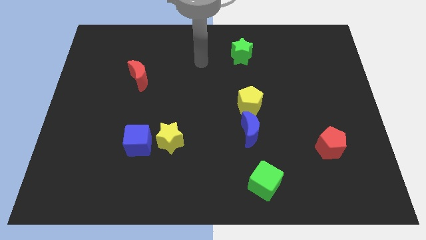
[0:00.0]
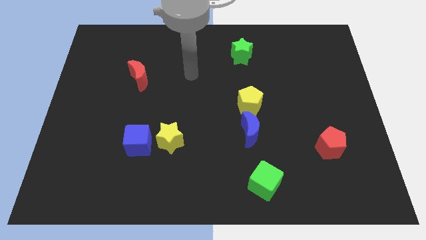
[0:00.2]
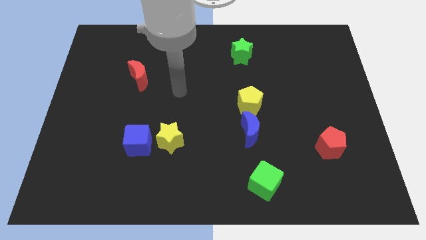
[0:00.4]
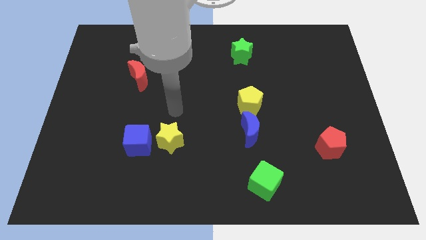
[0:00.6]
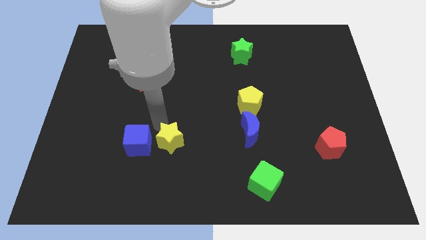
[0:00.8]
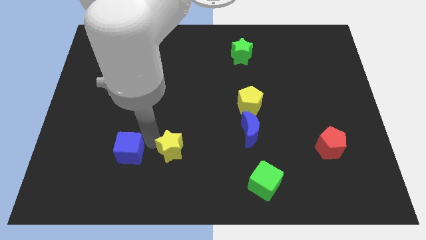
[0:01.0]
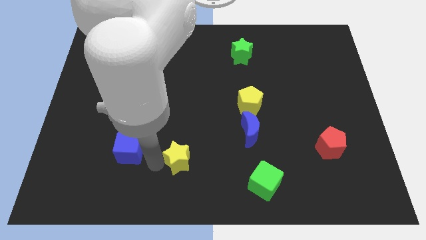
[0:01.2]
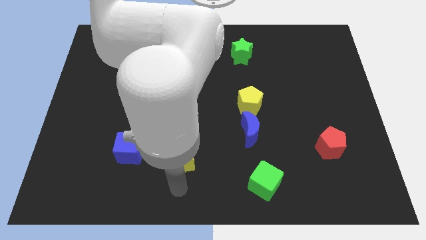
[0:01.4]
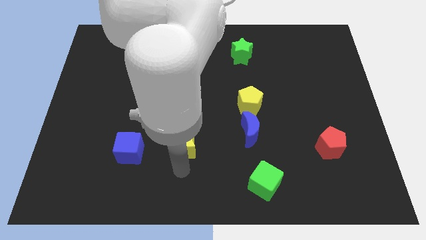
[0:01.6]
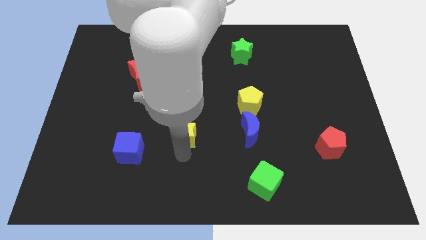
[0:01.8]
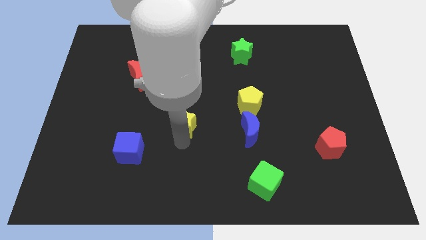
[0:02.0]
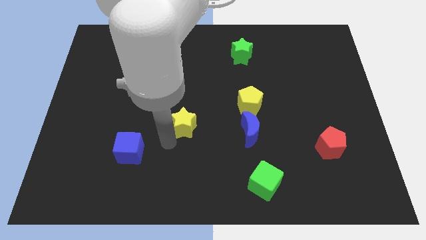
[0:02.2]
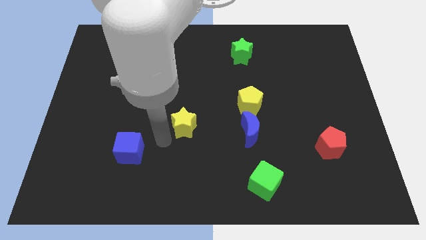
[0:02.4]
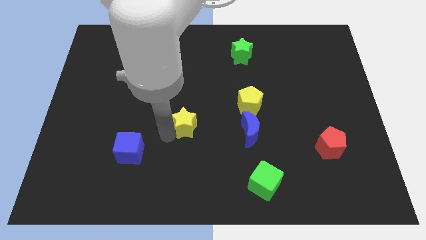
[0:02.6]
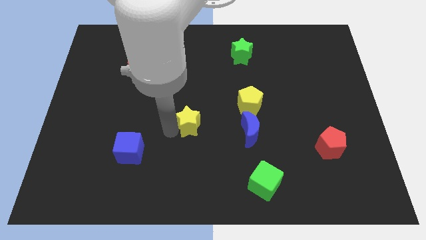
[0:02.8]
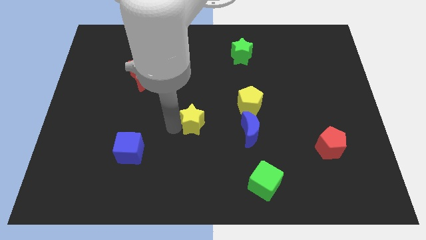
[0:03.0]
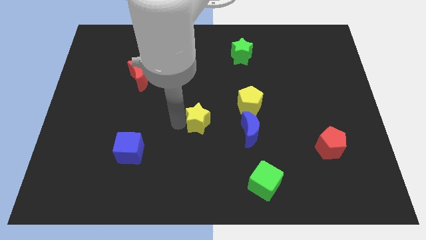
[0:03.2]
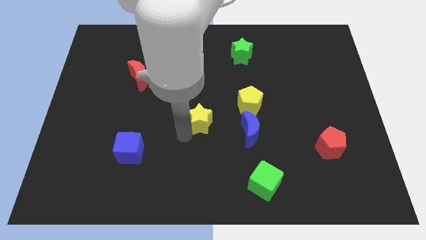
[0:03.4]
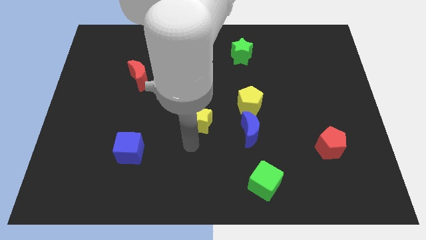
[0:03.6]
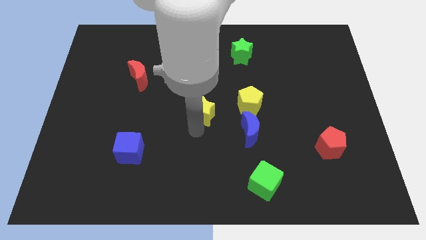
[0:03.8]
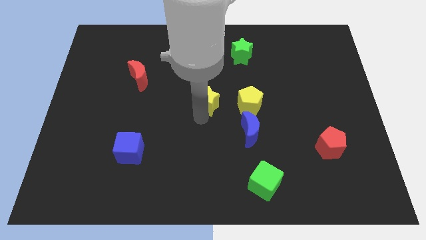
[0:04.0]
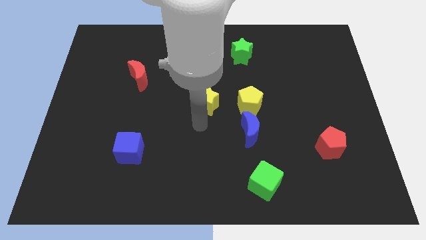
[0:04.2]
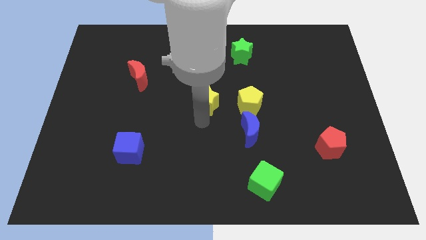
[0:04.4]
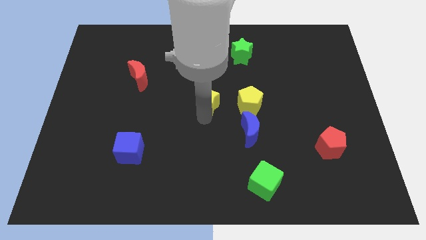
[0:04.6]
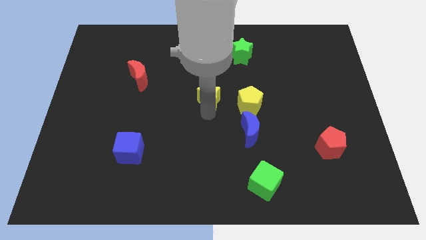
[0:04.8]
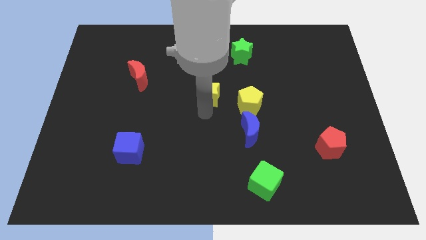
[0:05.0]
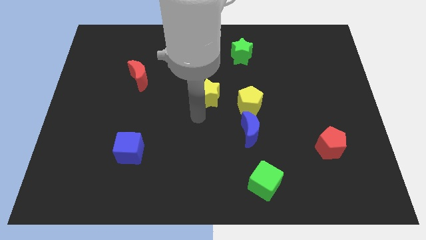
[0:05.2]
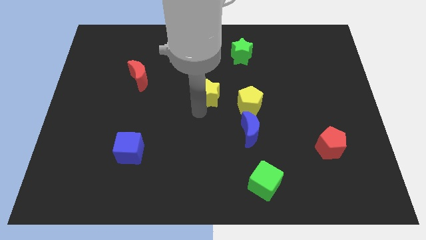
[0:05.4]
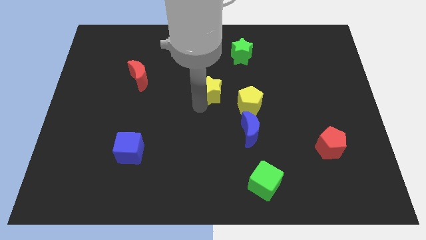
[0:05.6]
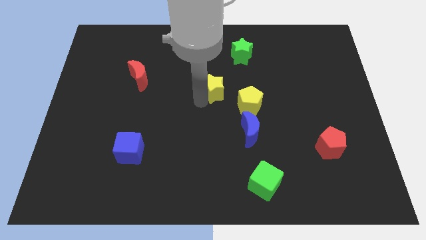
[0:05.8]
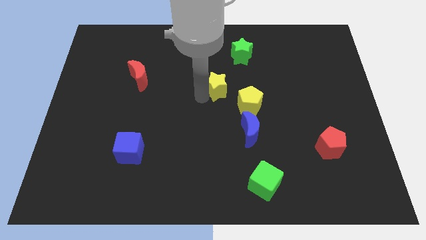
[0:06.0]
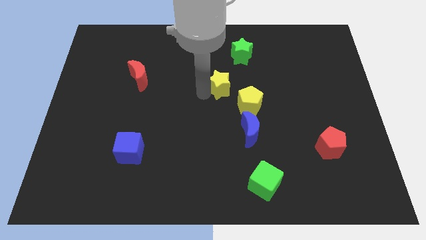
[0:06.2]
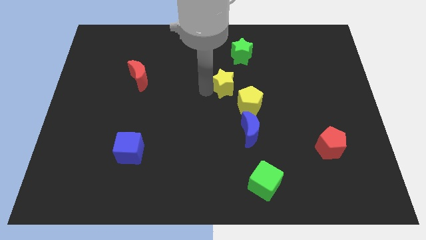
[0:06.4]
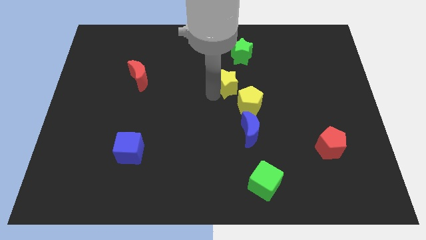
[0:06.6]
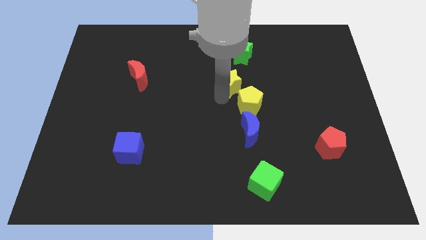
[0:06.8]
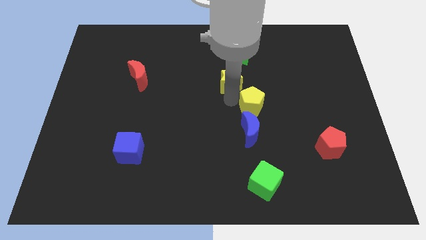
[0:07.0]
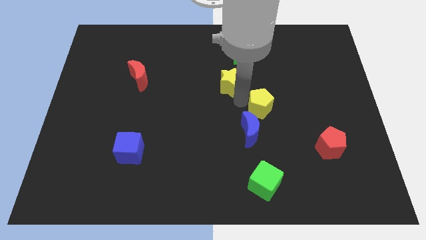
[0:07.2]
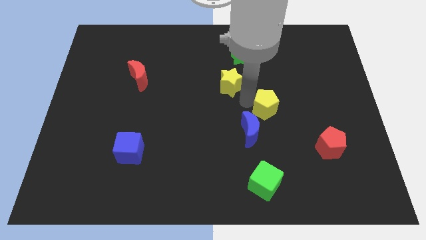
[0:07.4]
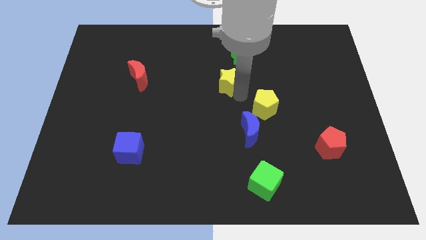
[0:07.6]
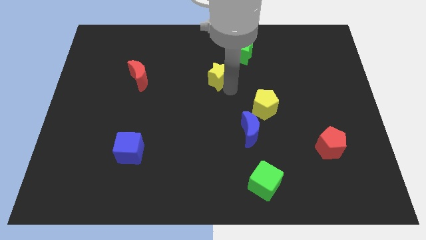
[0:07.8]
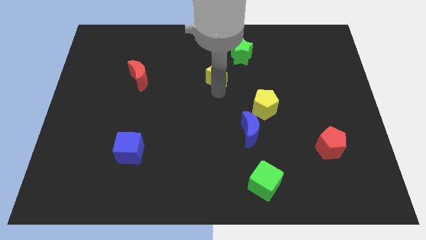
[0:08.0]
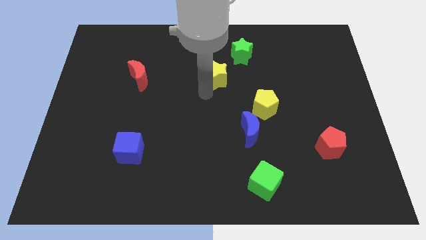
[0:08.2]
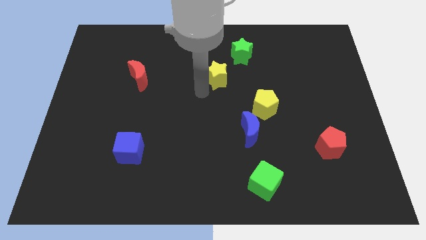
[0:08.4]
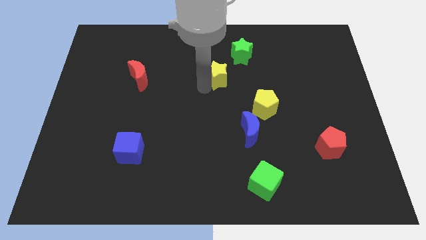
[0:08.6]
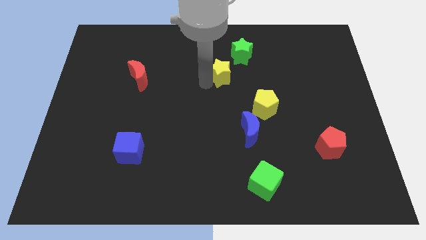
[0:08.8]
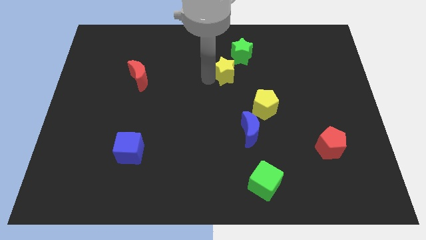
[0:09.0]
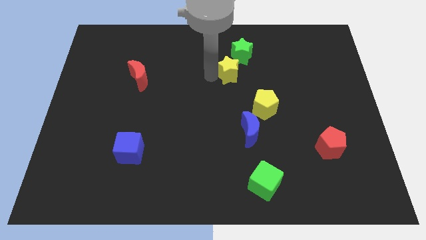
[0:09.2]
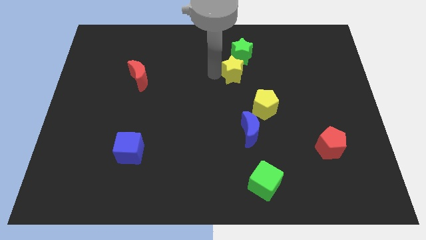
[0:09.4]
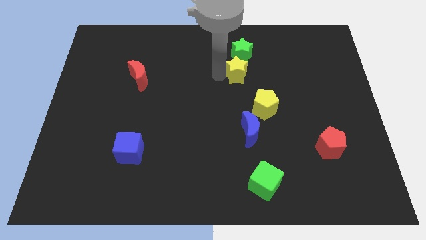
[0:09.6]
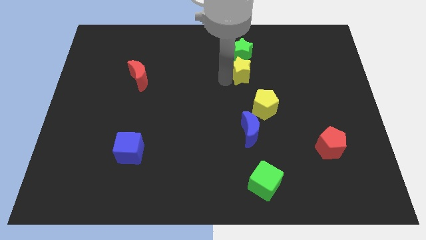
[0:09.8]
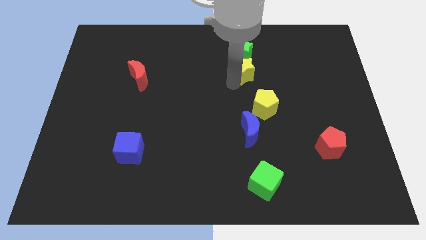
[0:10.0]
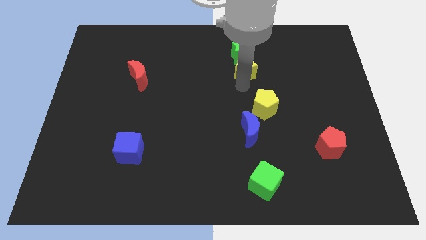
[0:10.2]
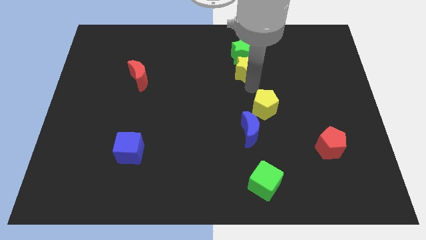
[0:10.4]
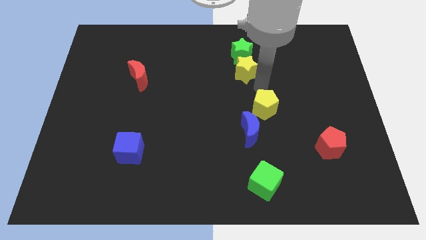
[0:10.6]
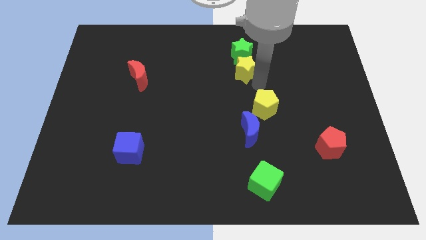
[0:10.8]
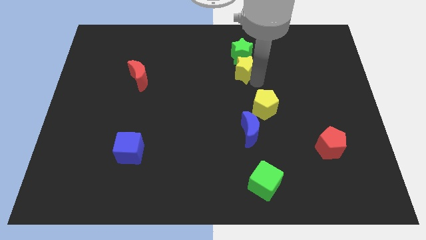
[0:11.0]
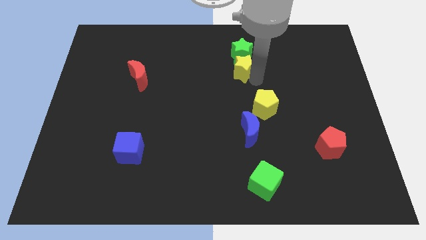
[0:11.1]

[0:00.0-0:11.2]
push the yellow star to the green star
